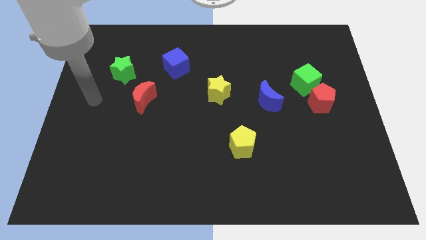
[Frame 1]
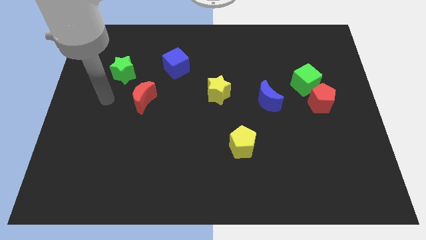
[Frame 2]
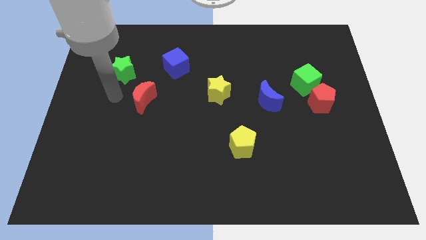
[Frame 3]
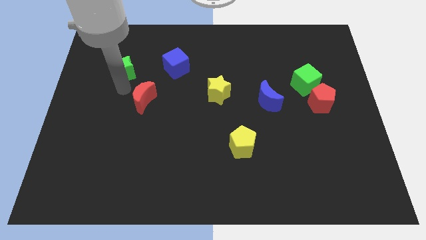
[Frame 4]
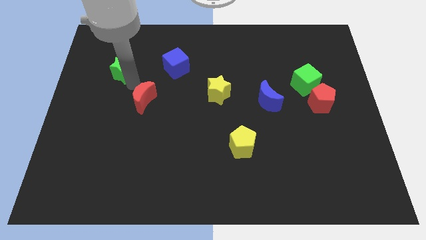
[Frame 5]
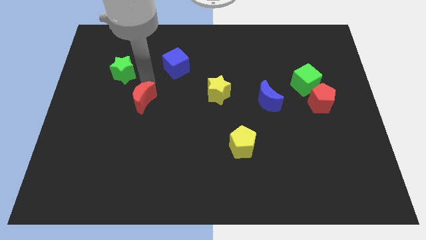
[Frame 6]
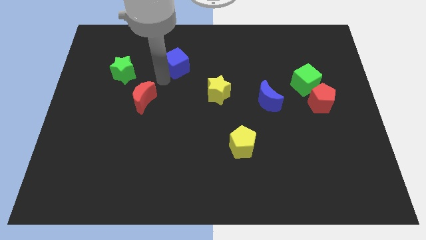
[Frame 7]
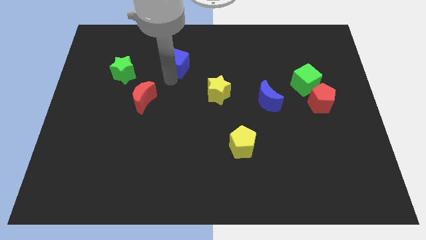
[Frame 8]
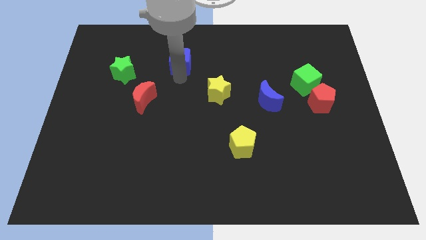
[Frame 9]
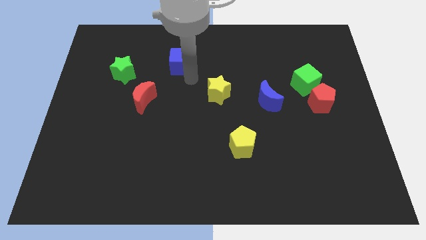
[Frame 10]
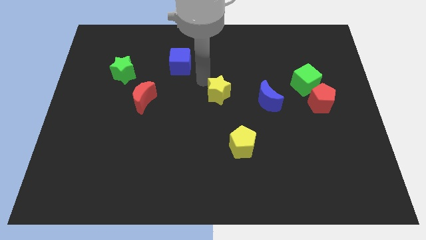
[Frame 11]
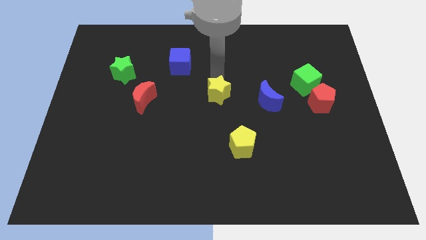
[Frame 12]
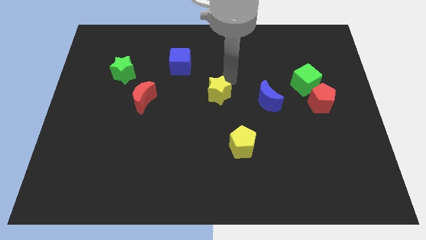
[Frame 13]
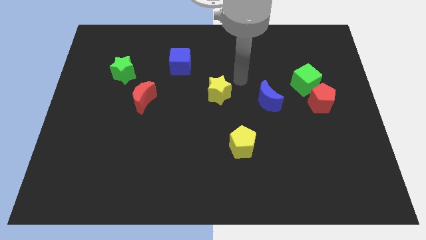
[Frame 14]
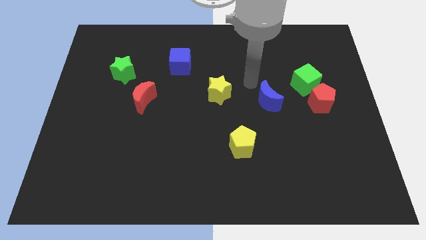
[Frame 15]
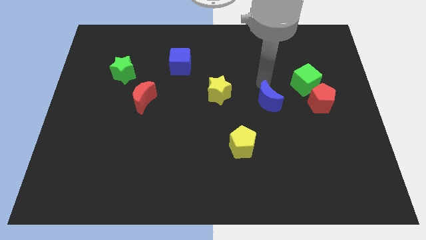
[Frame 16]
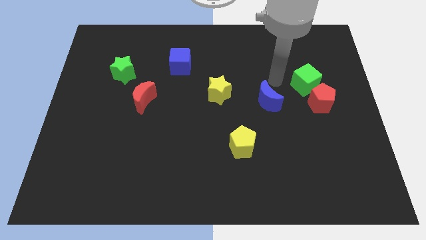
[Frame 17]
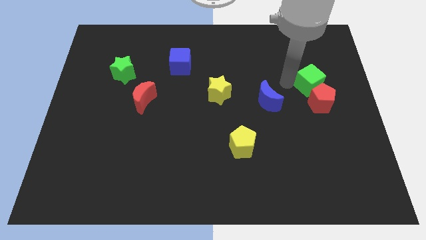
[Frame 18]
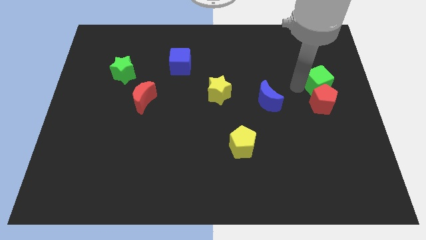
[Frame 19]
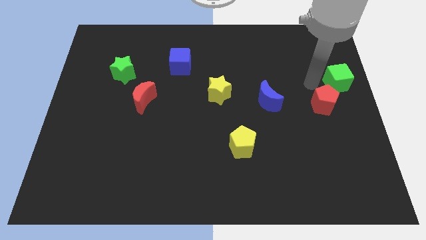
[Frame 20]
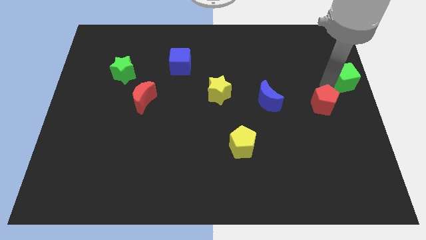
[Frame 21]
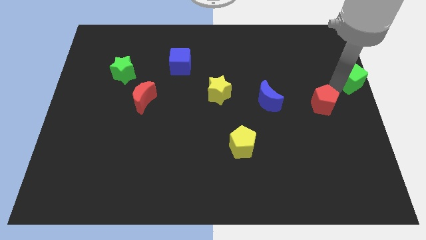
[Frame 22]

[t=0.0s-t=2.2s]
move the red pentagon away from the green cube

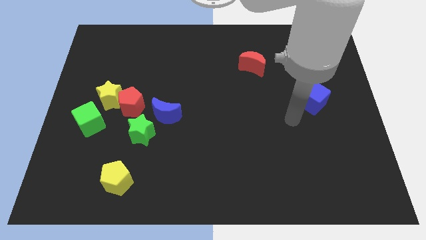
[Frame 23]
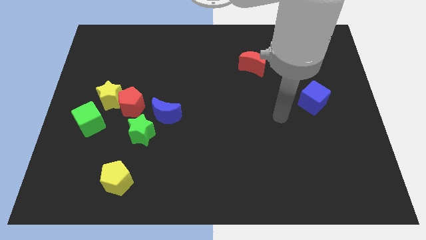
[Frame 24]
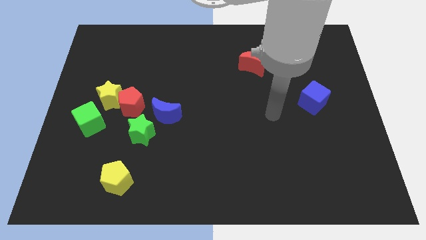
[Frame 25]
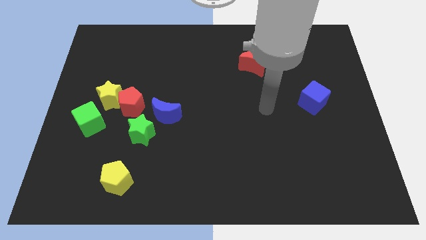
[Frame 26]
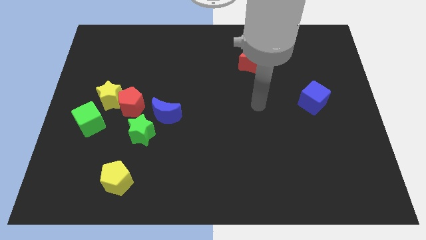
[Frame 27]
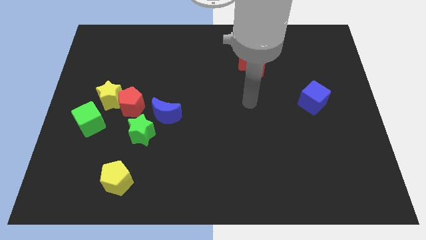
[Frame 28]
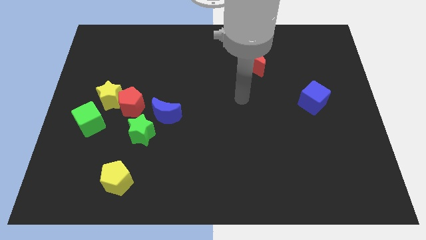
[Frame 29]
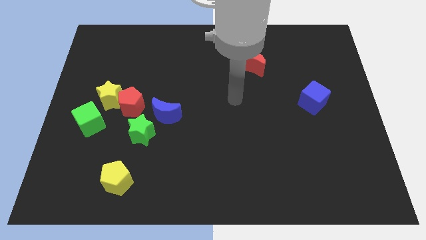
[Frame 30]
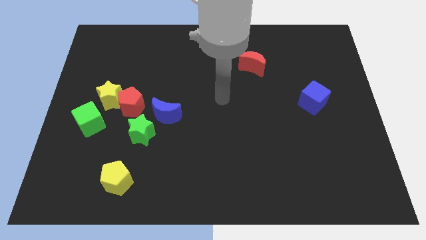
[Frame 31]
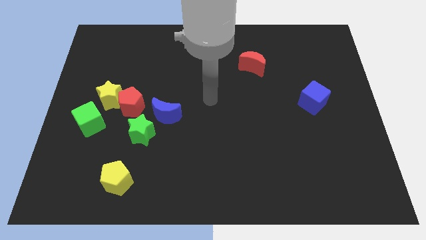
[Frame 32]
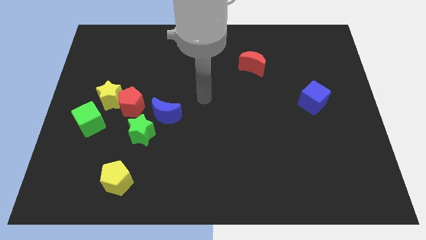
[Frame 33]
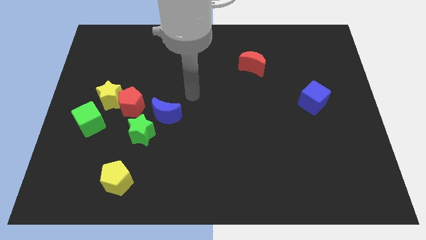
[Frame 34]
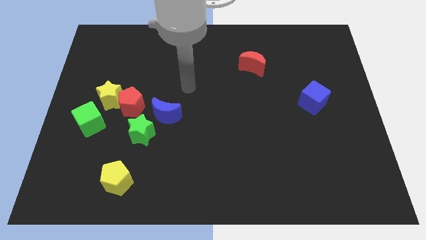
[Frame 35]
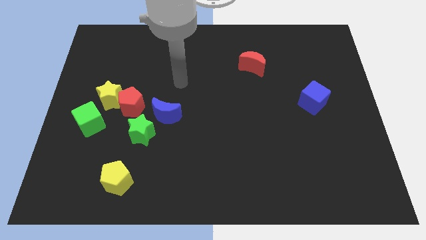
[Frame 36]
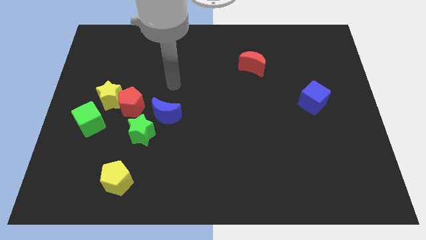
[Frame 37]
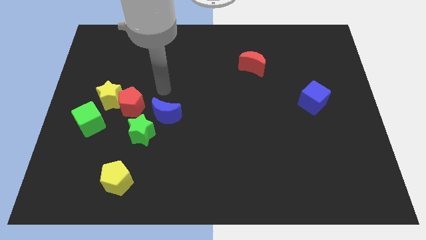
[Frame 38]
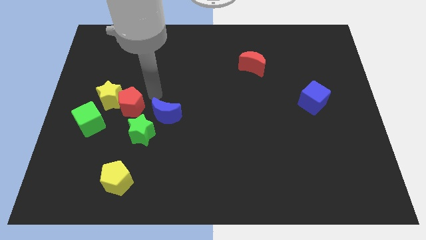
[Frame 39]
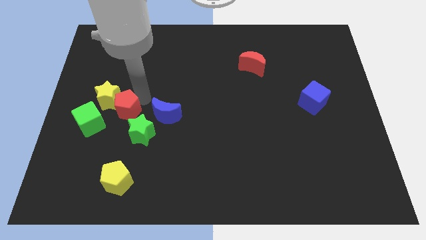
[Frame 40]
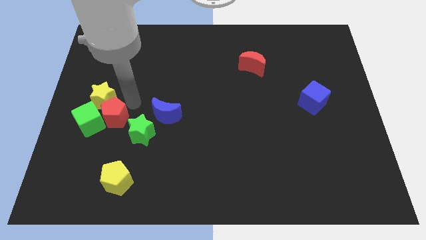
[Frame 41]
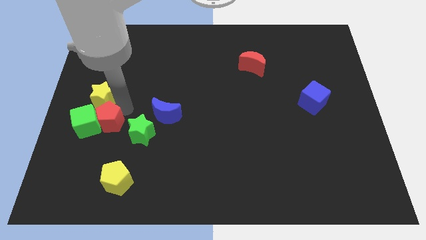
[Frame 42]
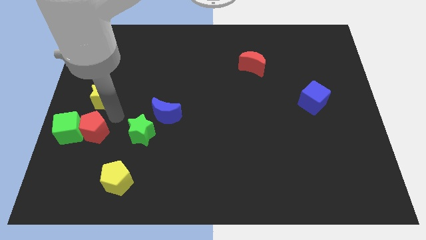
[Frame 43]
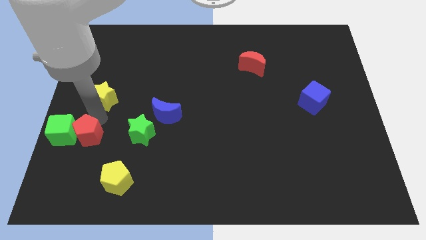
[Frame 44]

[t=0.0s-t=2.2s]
separate the yellow star from the red pentagon and green cube

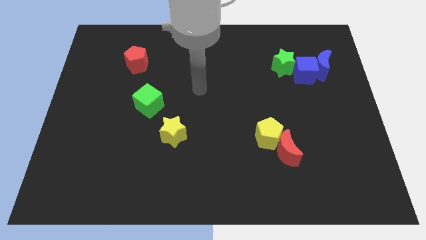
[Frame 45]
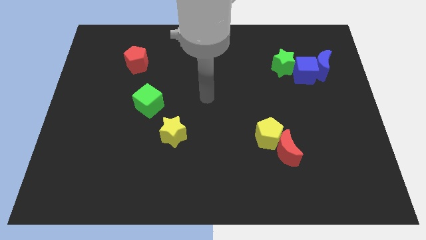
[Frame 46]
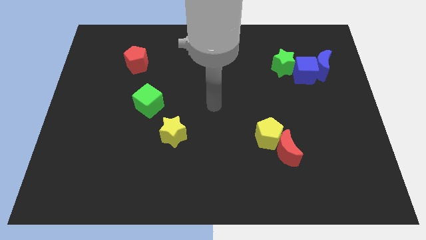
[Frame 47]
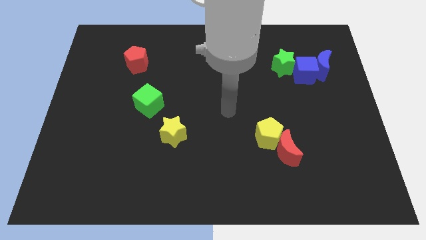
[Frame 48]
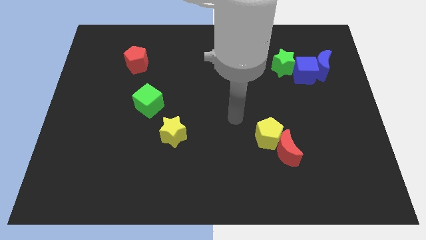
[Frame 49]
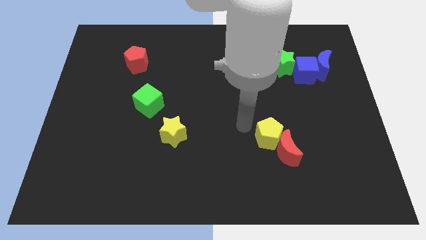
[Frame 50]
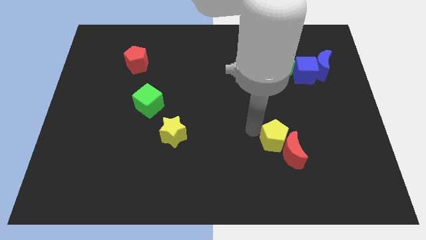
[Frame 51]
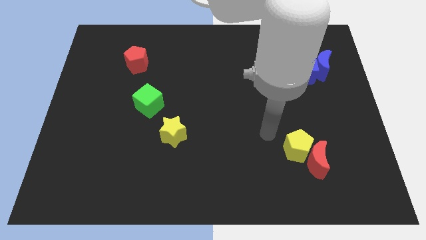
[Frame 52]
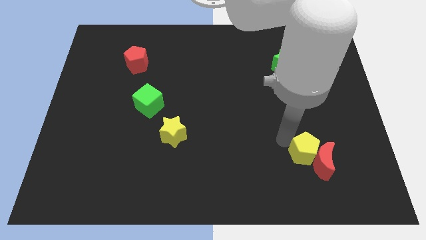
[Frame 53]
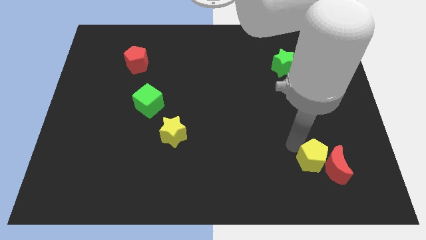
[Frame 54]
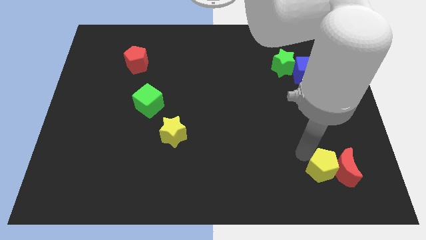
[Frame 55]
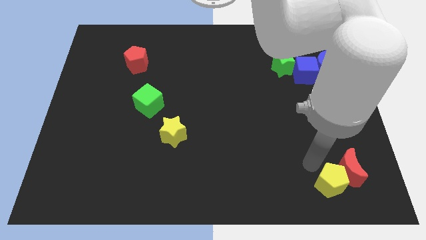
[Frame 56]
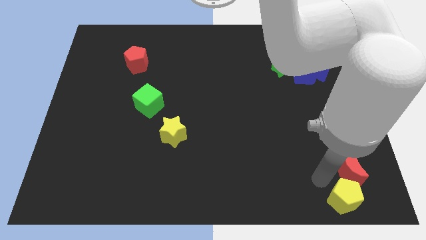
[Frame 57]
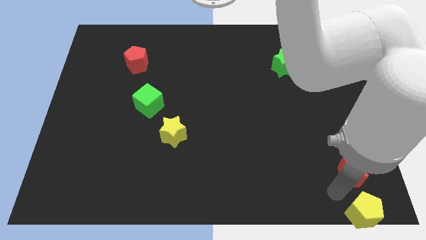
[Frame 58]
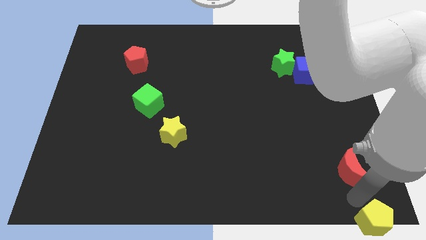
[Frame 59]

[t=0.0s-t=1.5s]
separate the red moon from the yellow pentagon

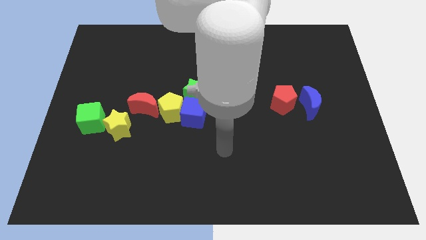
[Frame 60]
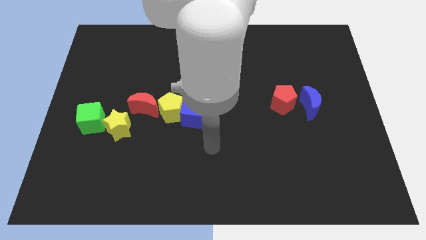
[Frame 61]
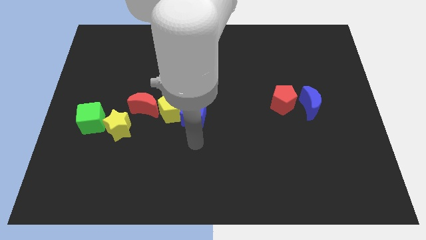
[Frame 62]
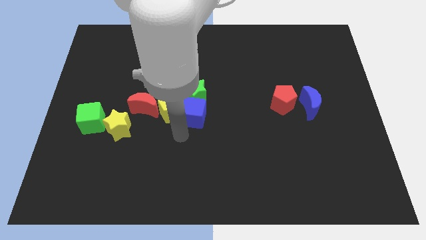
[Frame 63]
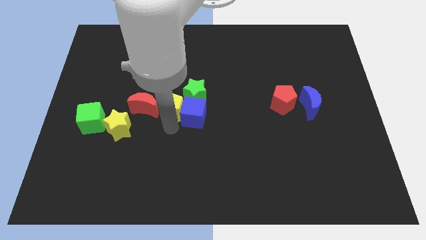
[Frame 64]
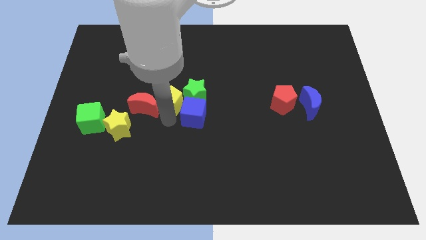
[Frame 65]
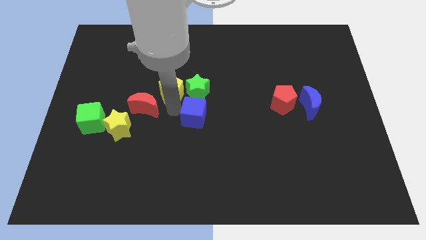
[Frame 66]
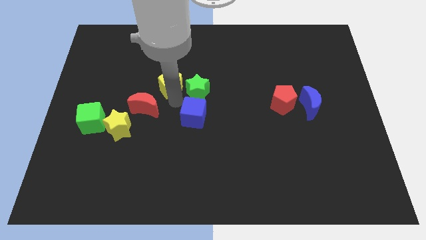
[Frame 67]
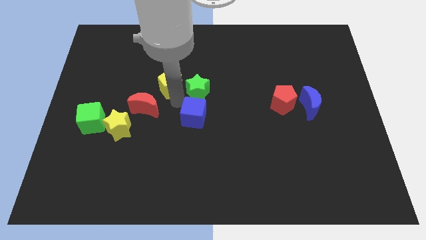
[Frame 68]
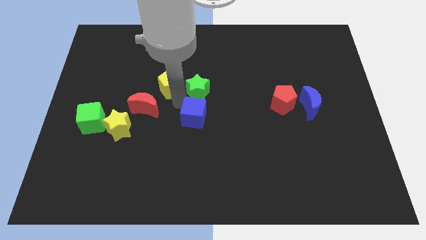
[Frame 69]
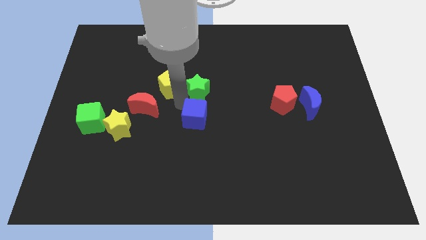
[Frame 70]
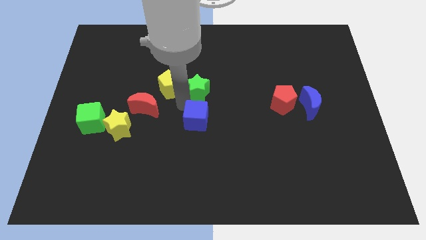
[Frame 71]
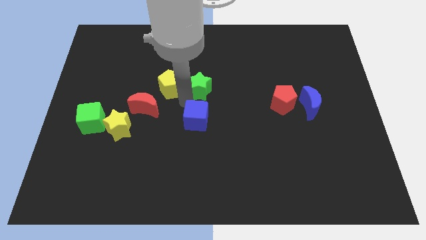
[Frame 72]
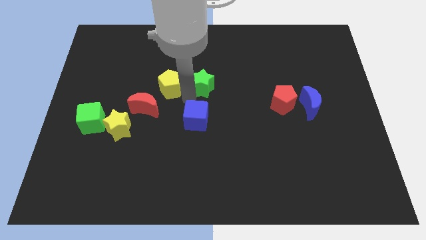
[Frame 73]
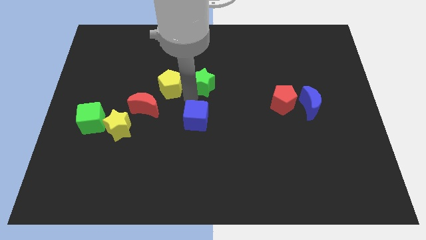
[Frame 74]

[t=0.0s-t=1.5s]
pull the blue cube apart from the yellow pentagon and green star

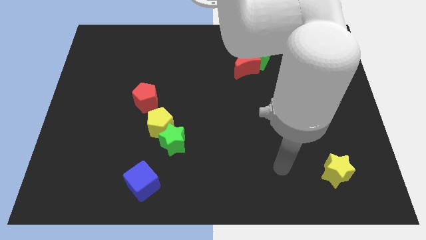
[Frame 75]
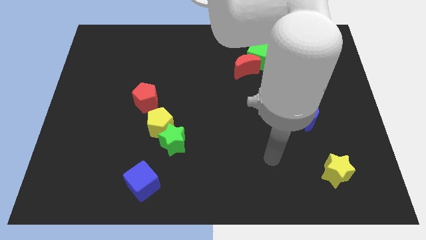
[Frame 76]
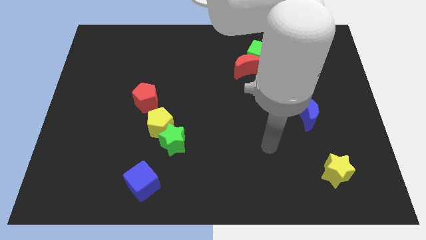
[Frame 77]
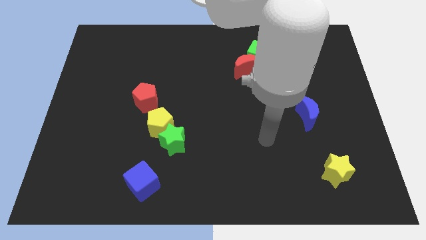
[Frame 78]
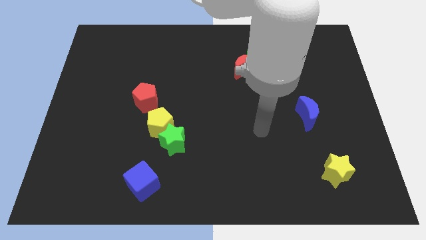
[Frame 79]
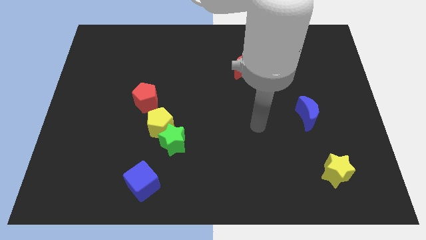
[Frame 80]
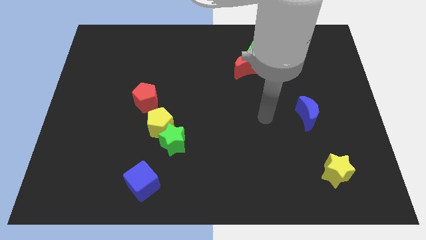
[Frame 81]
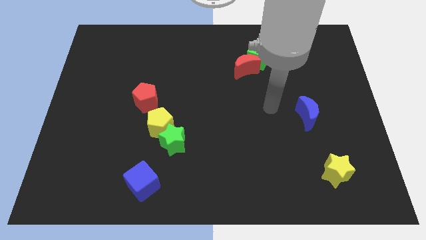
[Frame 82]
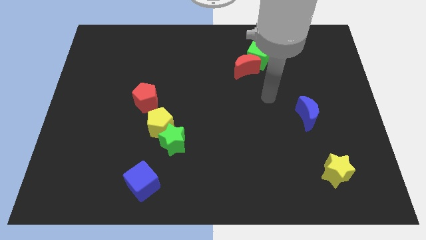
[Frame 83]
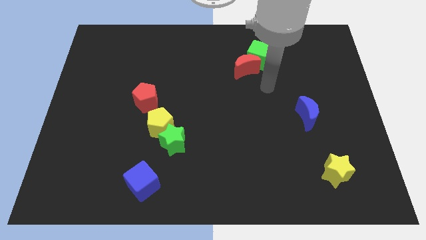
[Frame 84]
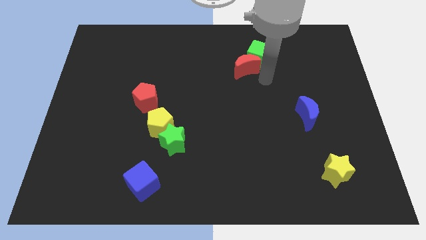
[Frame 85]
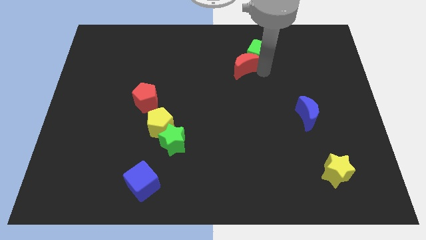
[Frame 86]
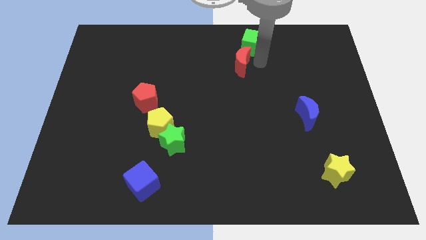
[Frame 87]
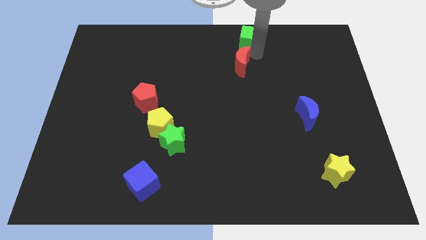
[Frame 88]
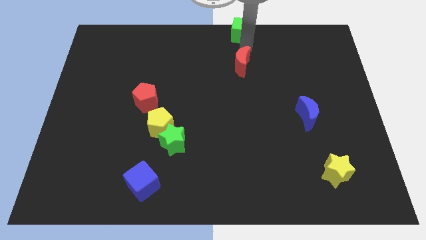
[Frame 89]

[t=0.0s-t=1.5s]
pull the red moon apart from the green cube

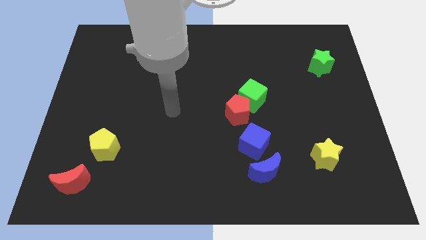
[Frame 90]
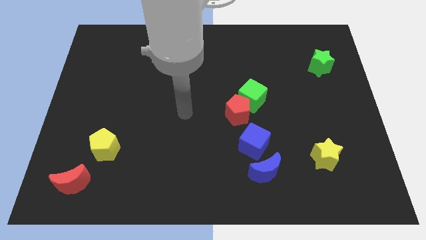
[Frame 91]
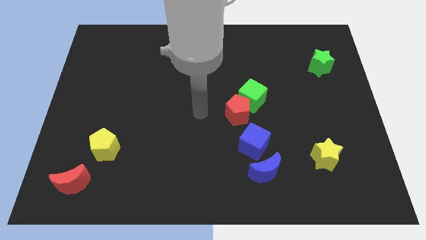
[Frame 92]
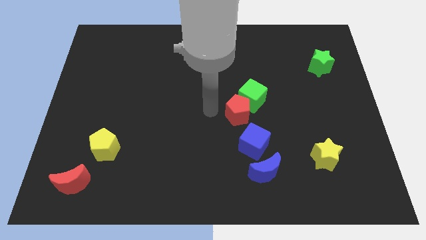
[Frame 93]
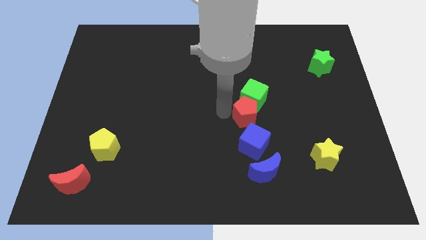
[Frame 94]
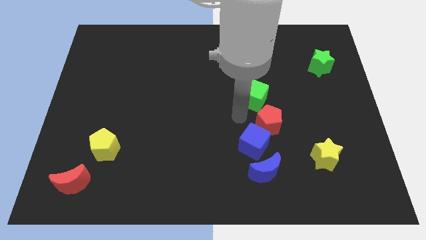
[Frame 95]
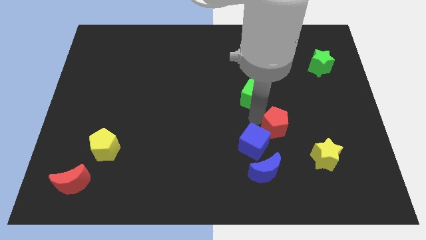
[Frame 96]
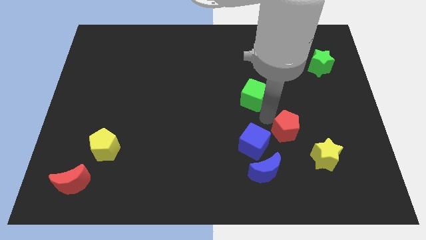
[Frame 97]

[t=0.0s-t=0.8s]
separate the green cube from the red pentagon
